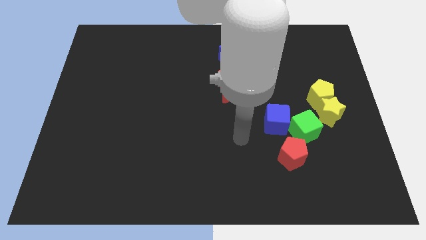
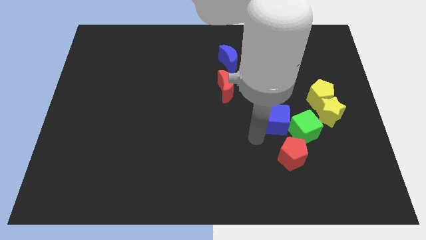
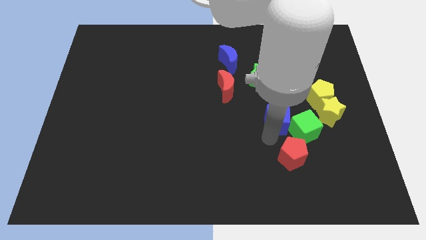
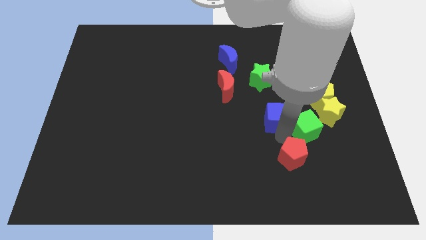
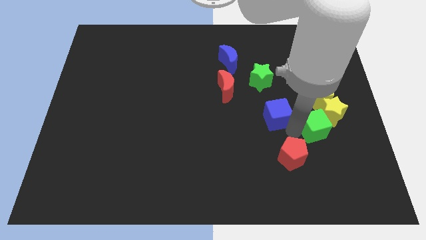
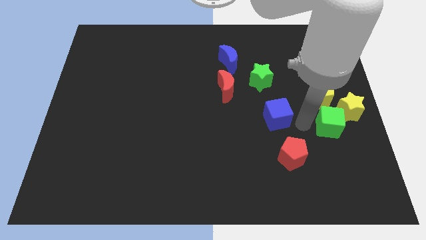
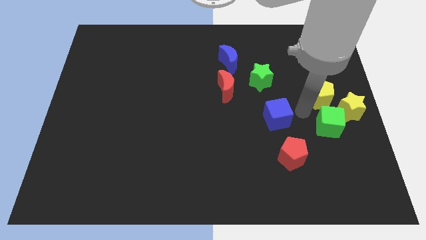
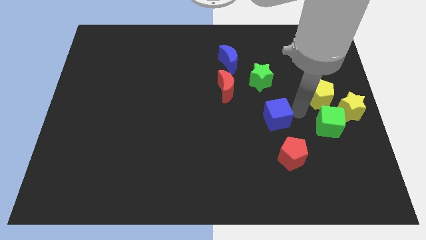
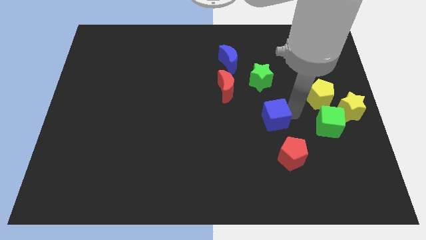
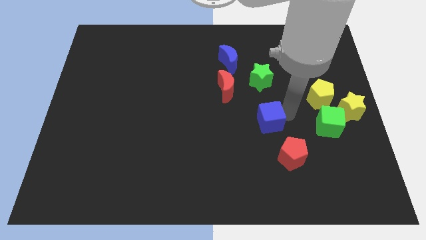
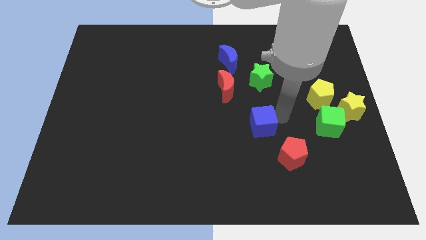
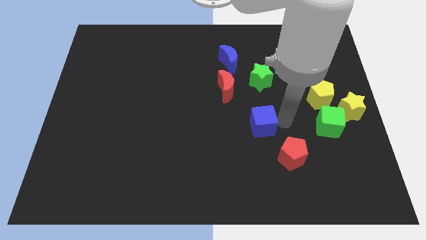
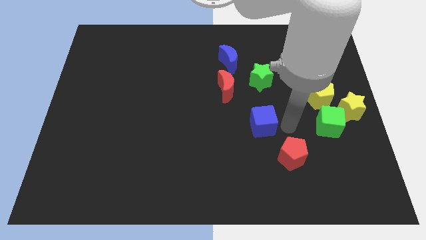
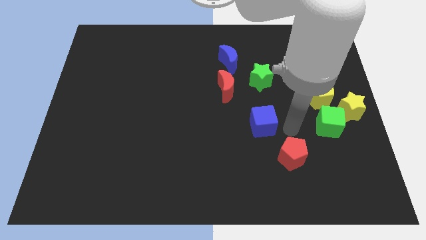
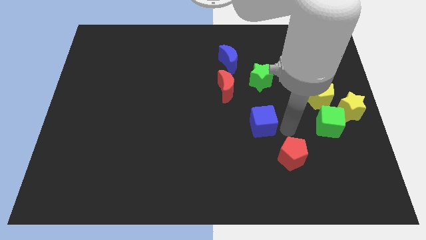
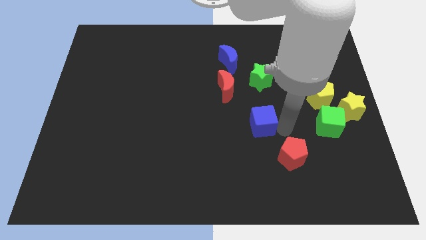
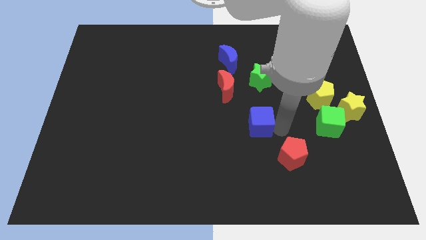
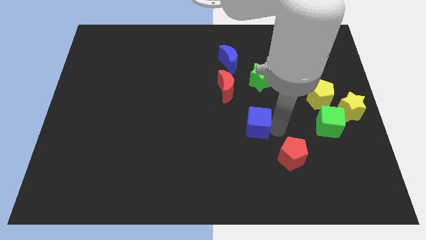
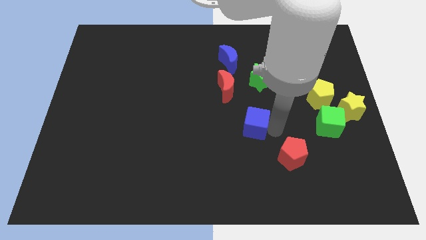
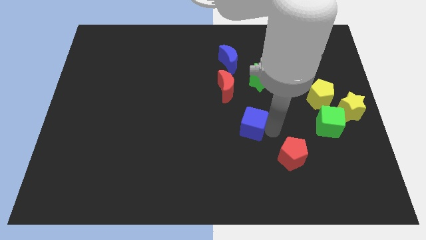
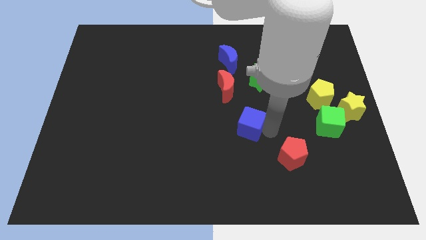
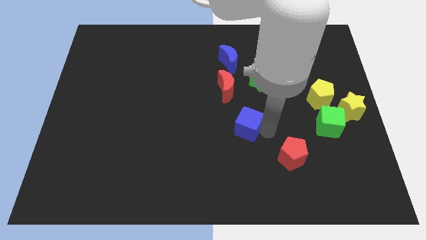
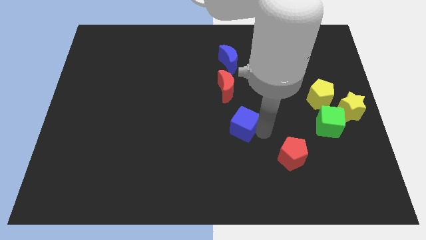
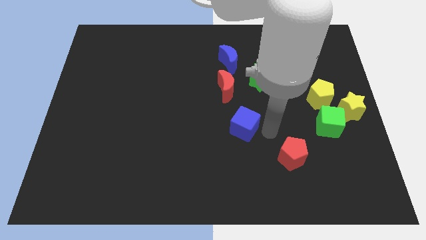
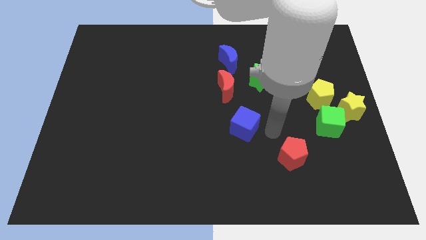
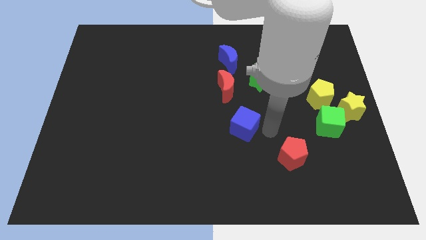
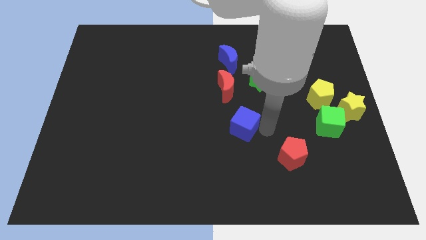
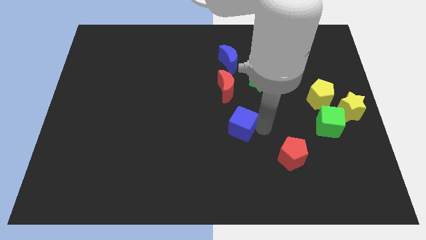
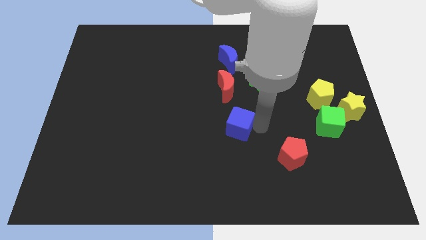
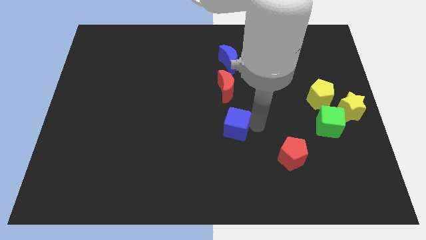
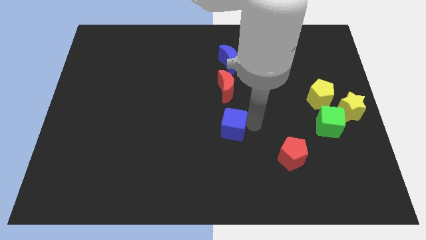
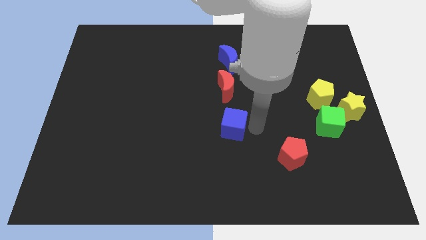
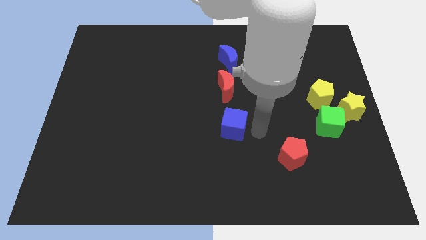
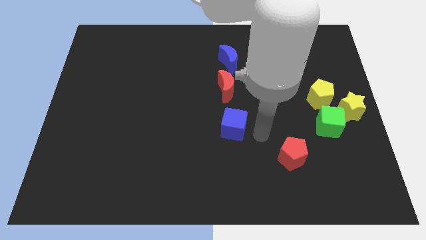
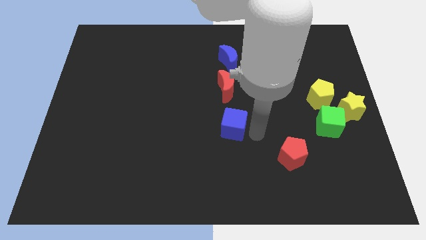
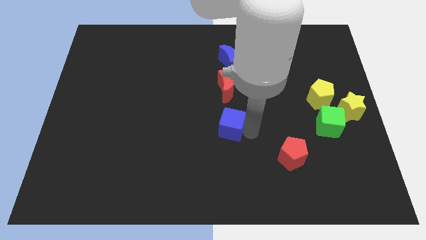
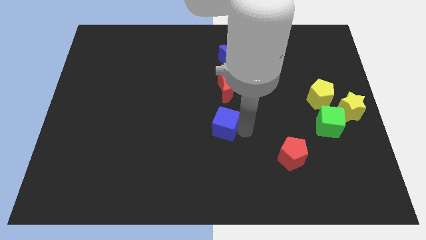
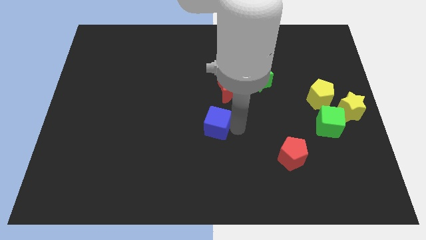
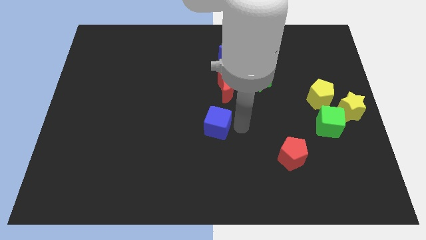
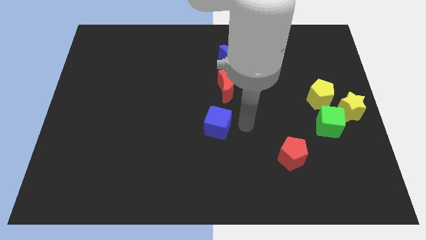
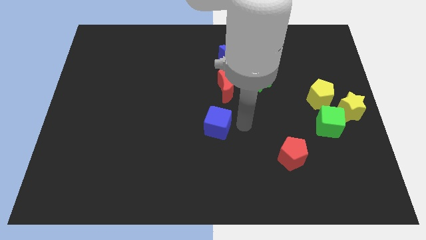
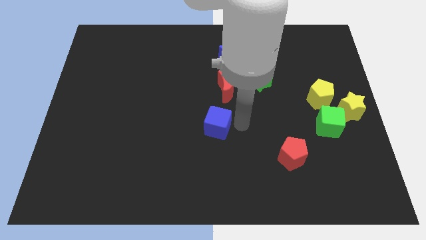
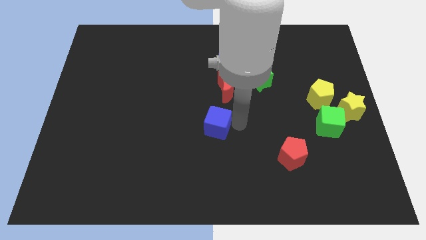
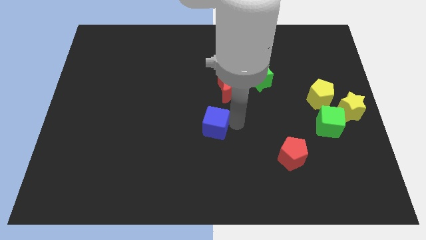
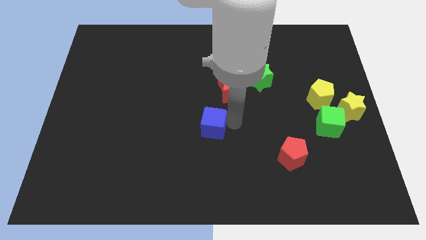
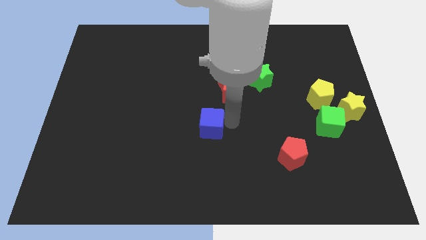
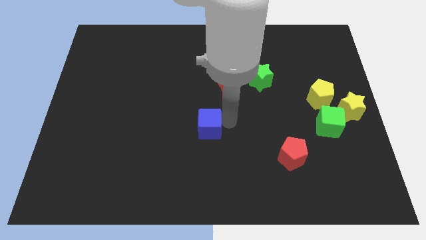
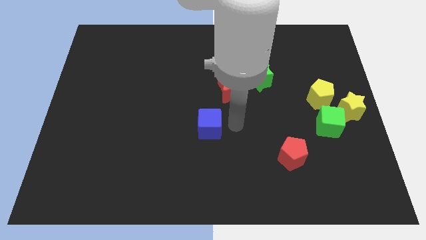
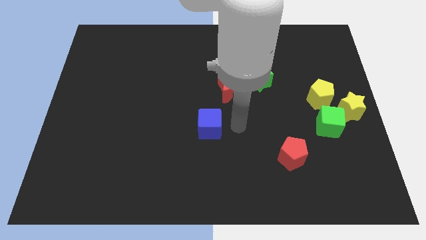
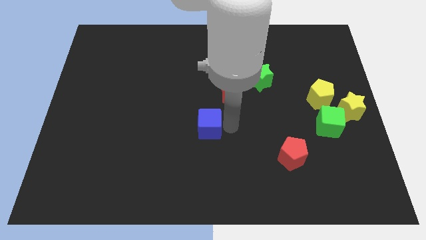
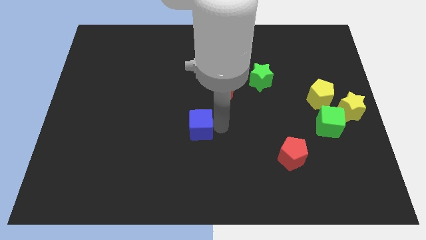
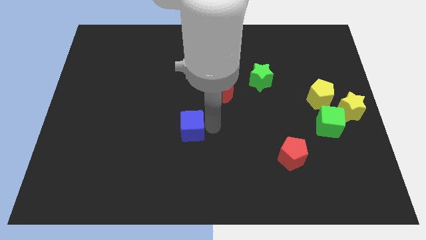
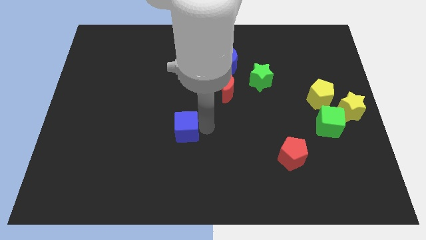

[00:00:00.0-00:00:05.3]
move the blue cube left

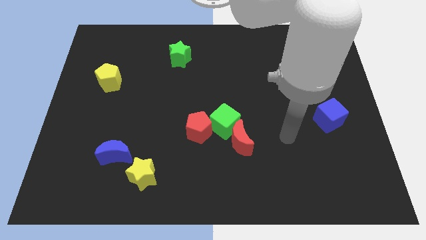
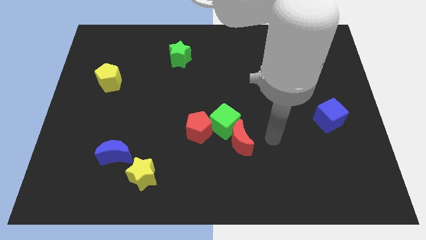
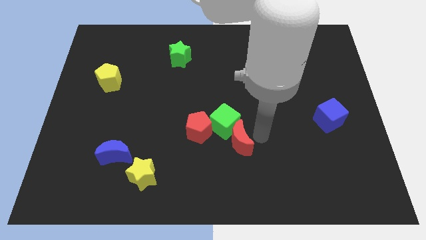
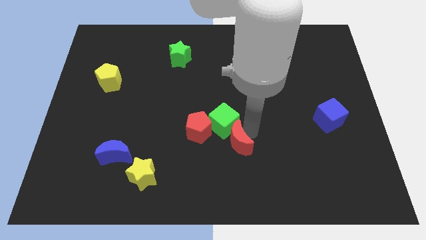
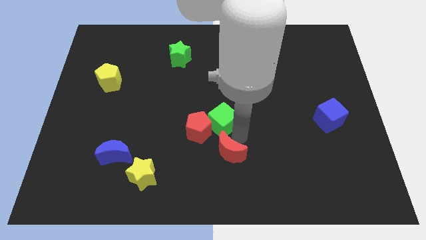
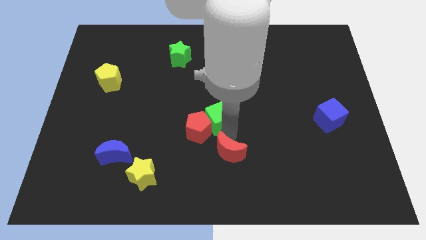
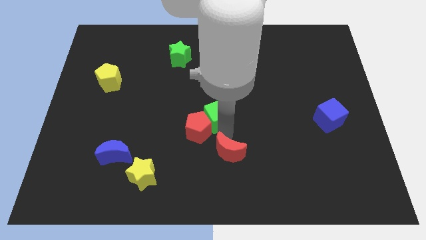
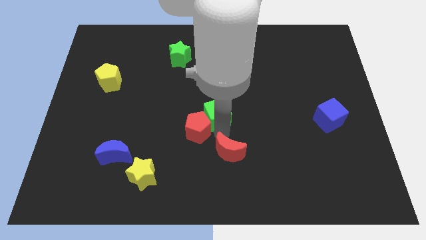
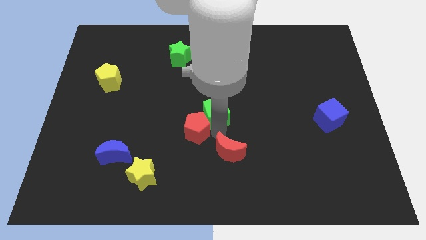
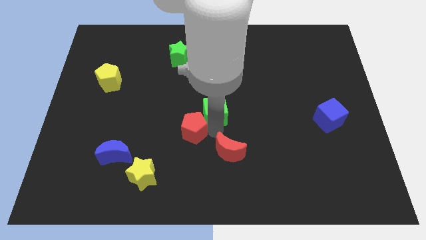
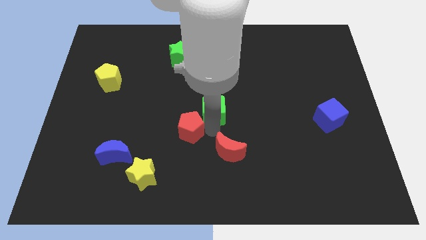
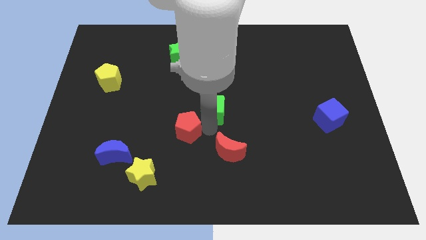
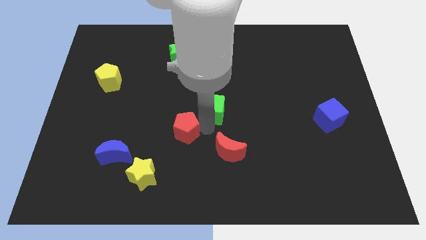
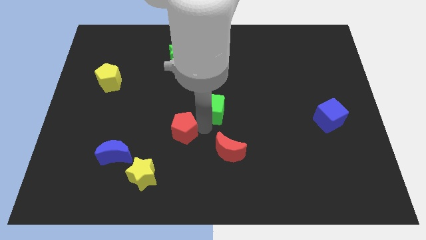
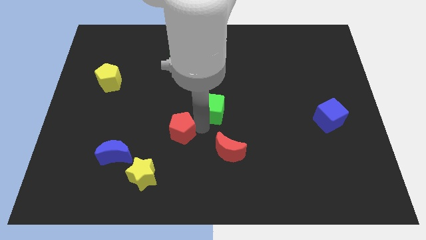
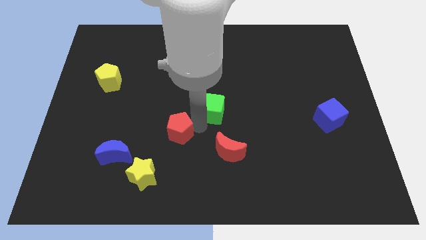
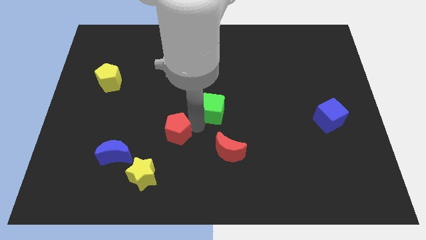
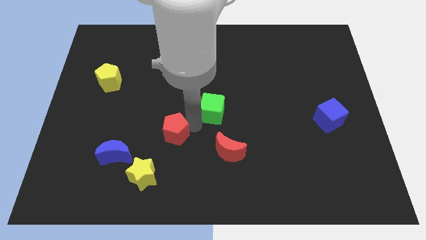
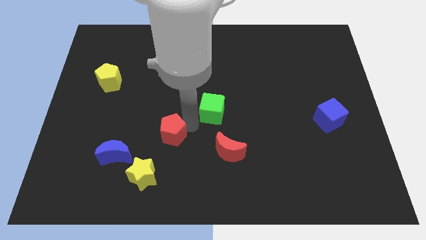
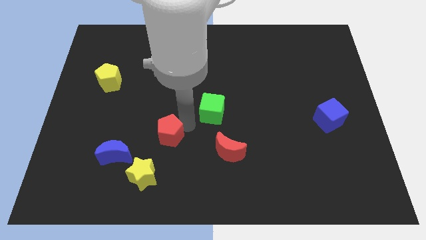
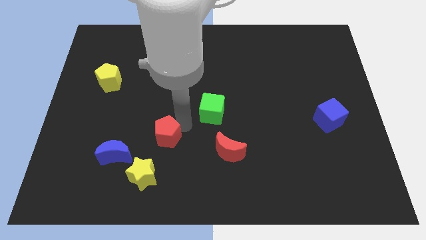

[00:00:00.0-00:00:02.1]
slightly move the red pentagon left

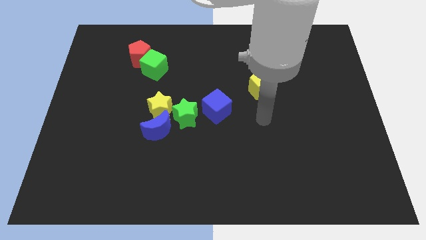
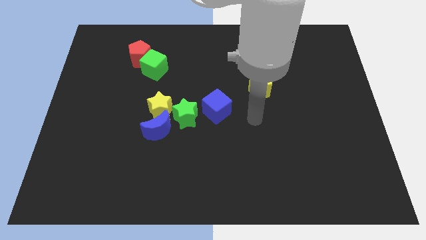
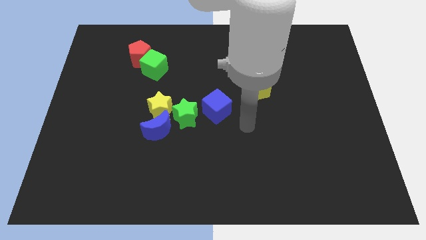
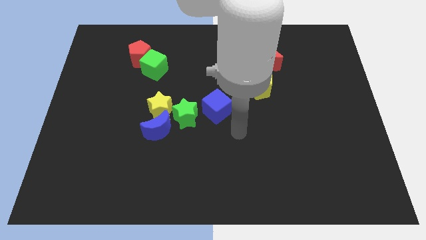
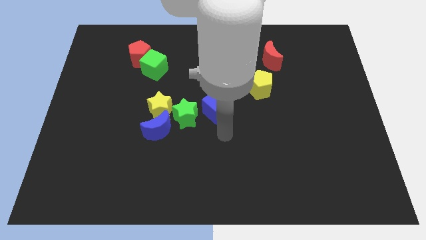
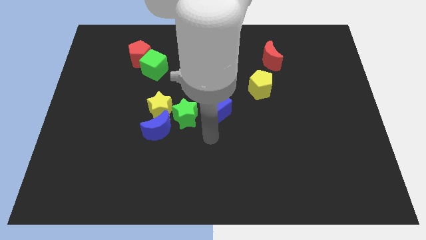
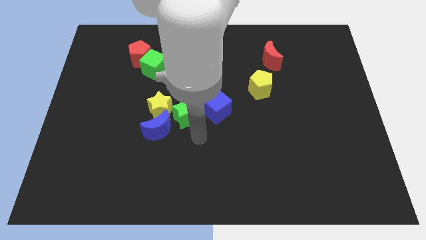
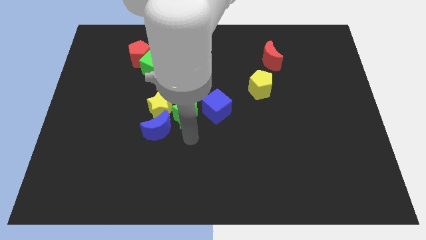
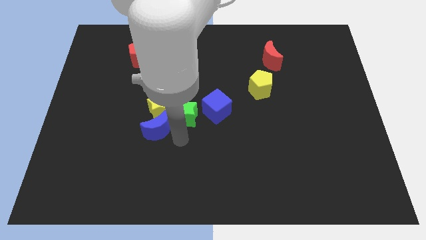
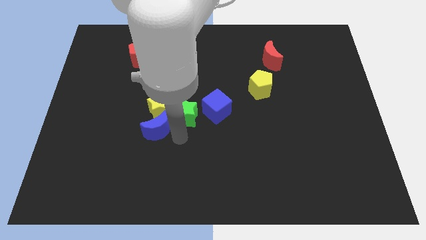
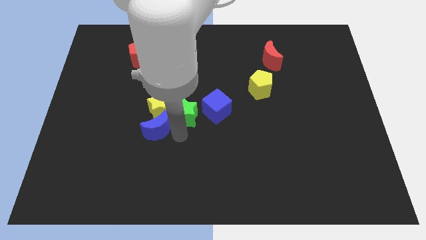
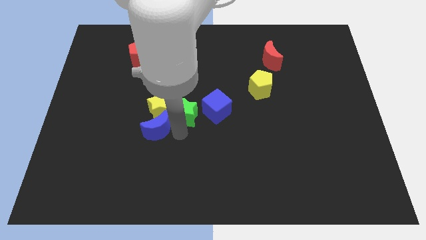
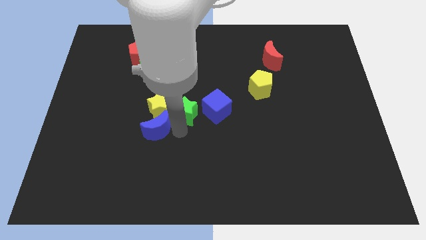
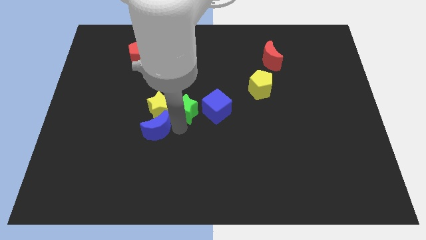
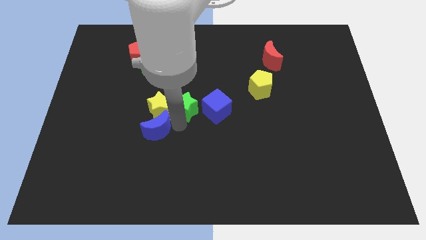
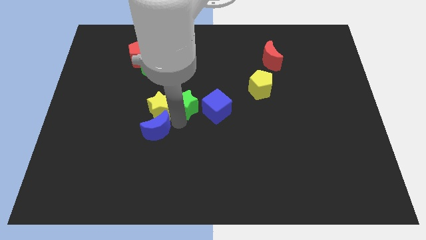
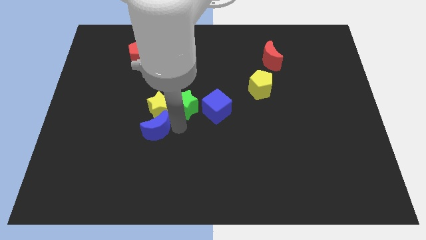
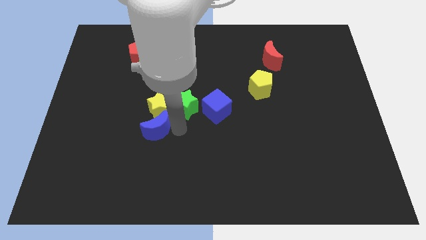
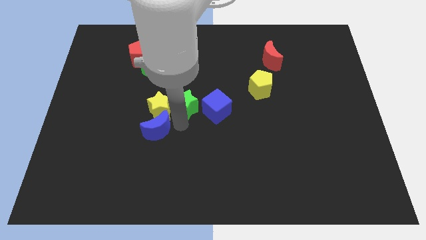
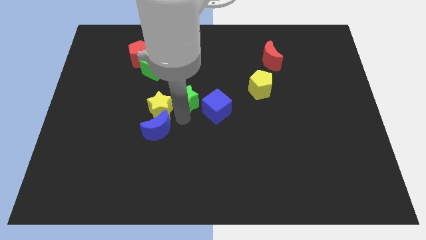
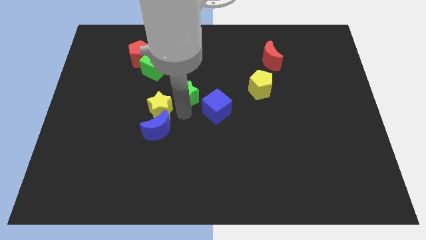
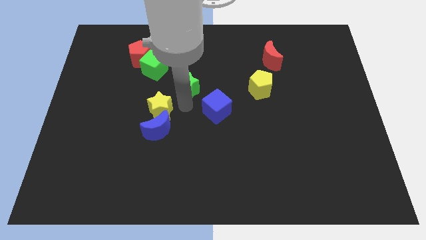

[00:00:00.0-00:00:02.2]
move the green star somewhat upwards
